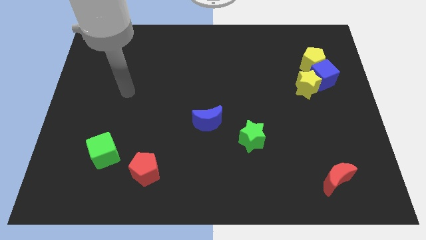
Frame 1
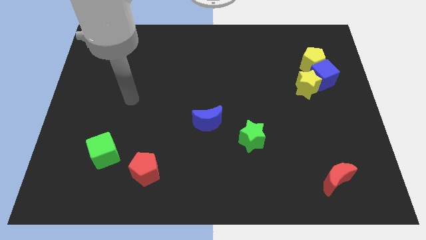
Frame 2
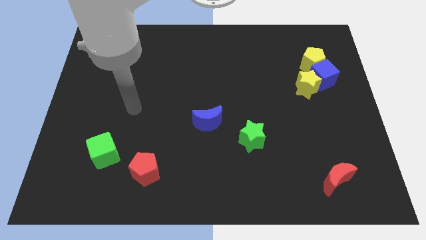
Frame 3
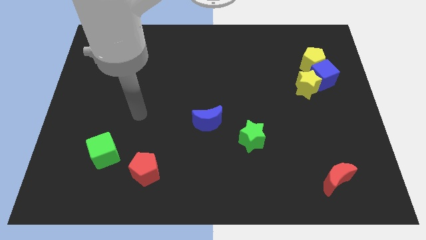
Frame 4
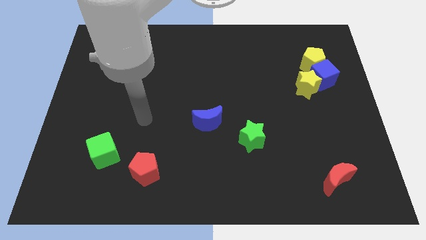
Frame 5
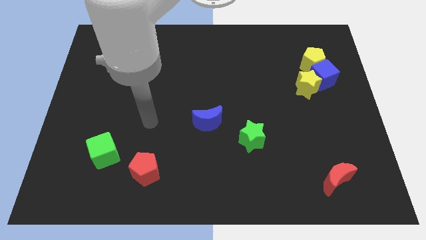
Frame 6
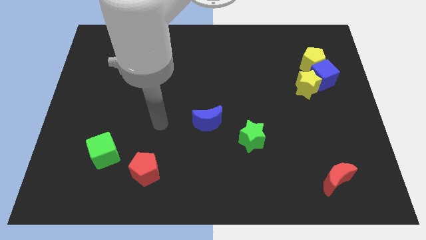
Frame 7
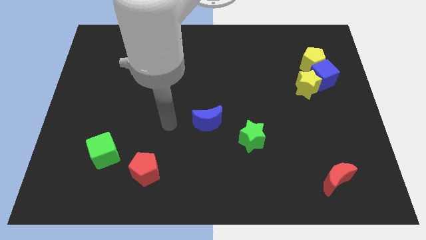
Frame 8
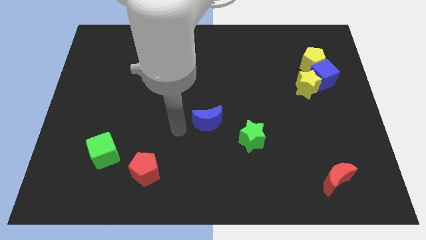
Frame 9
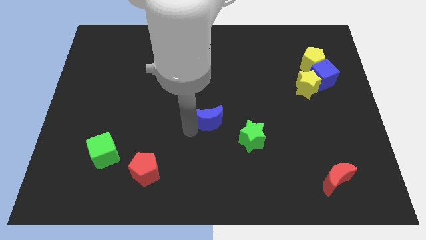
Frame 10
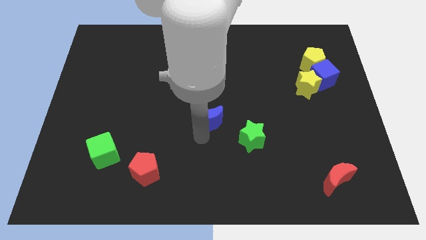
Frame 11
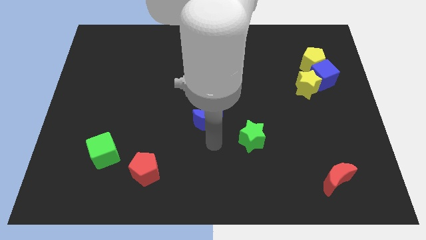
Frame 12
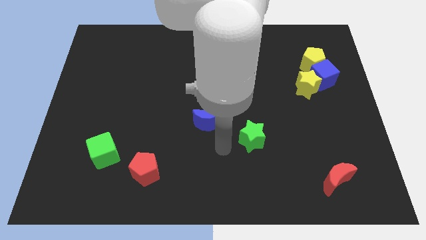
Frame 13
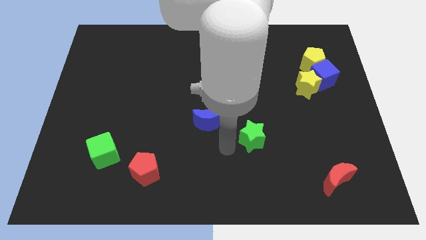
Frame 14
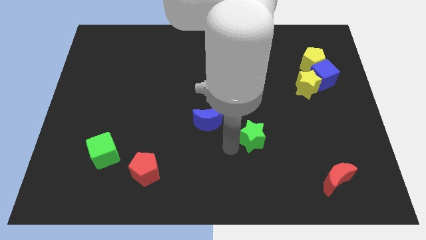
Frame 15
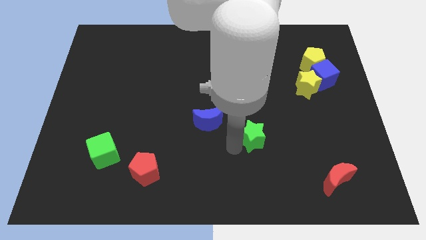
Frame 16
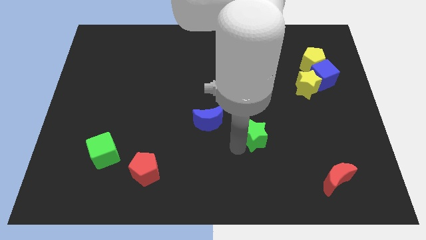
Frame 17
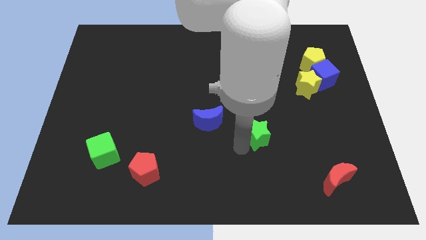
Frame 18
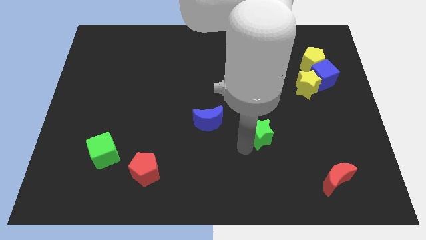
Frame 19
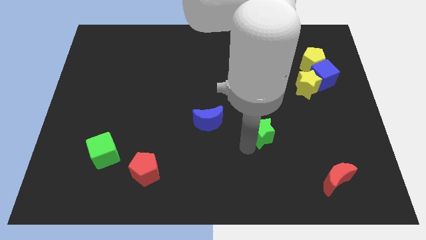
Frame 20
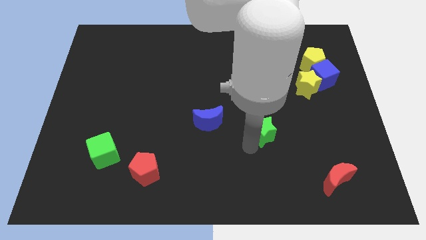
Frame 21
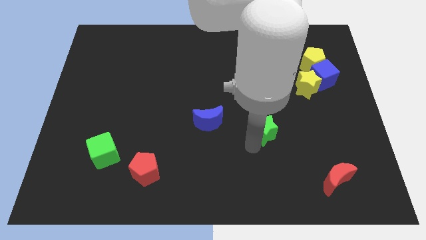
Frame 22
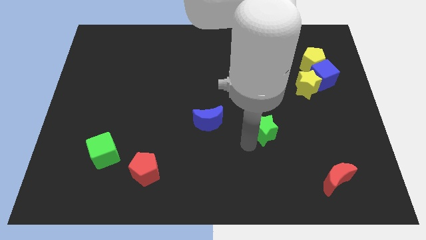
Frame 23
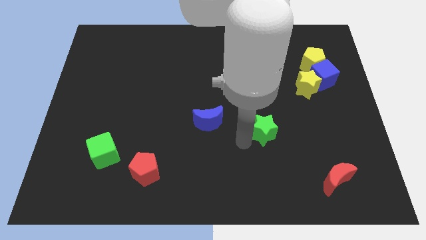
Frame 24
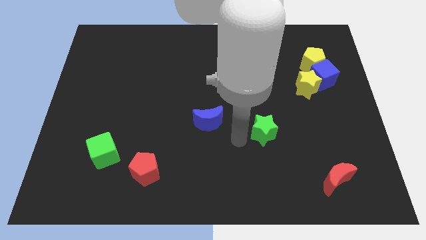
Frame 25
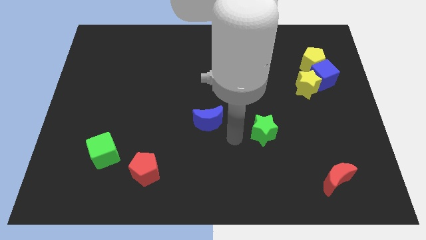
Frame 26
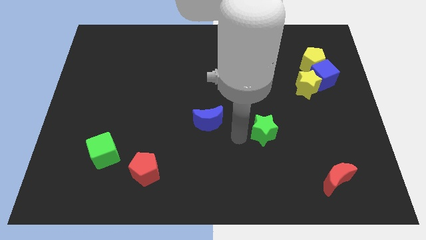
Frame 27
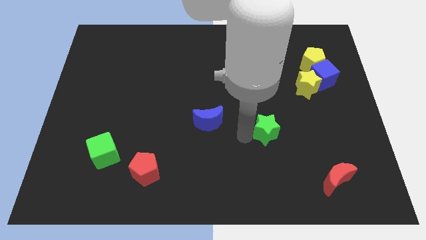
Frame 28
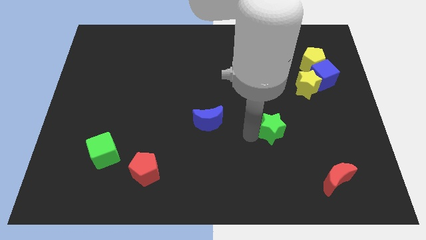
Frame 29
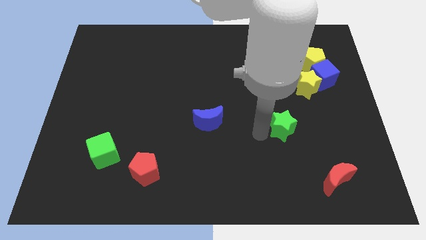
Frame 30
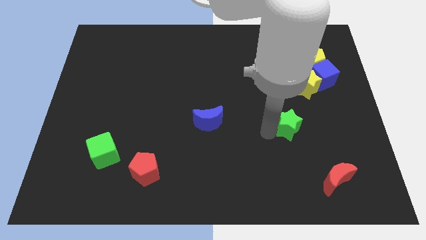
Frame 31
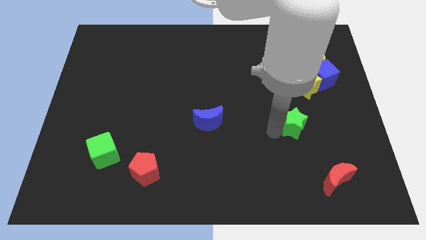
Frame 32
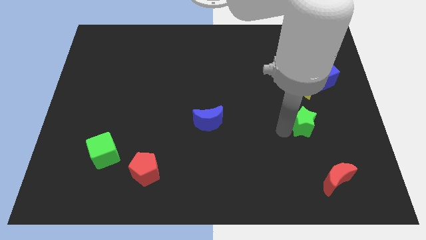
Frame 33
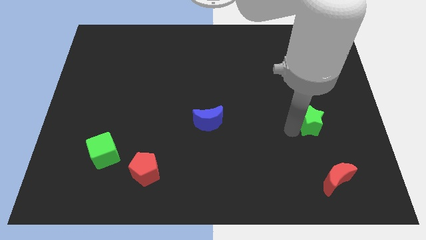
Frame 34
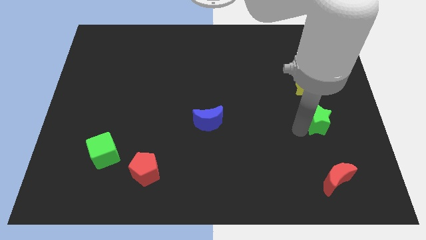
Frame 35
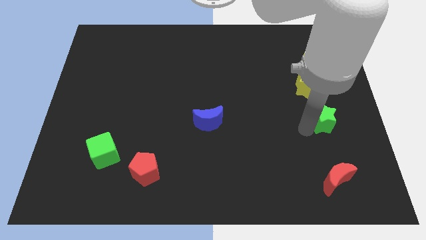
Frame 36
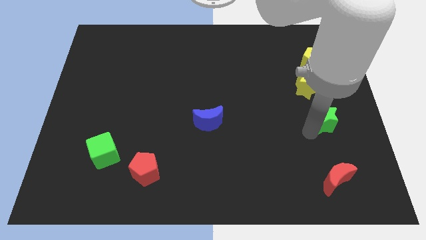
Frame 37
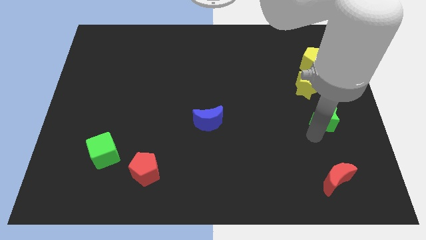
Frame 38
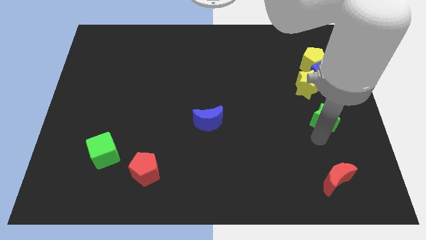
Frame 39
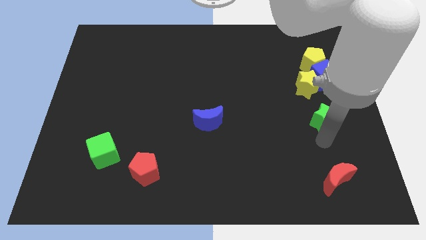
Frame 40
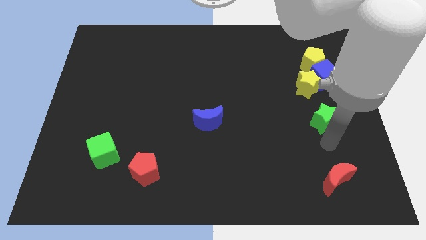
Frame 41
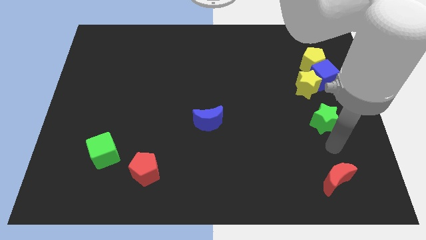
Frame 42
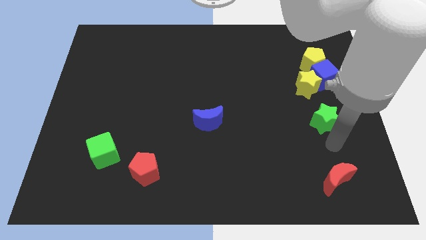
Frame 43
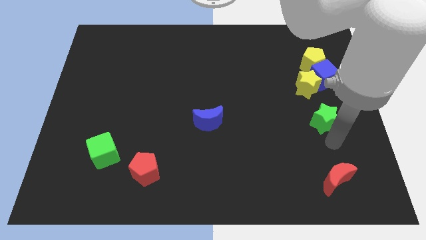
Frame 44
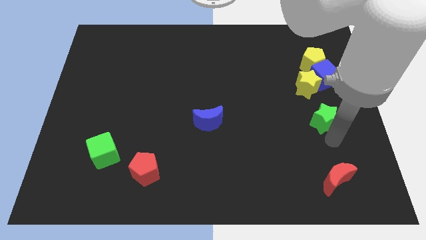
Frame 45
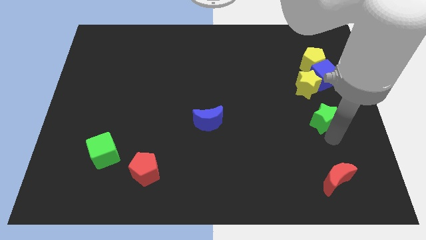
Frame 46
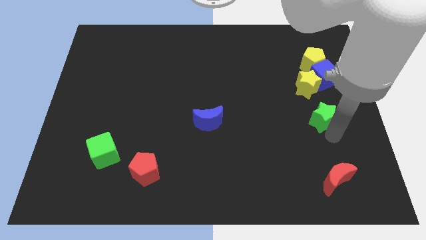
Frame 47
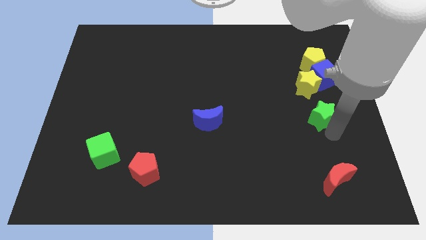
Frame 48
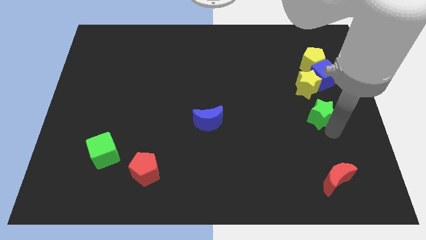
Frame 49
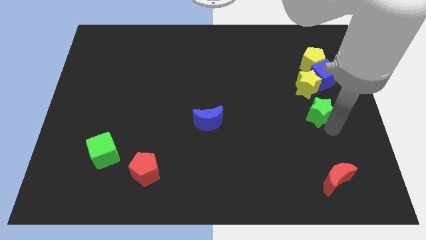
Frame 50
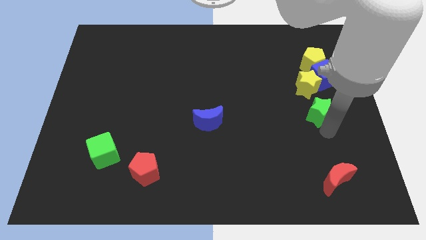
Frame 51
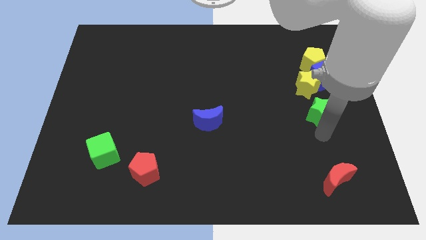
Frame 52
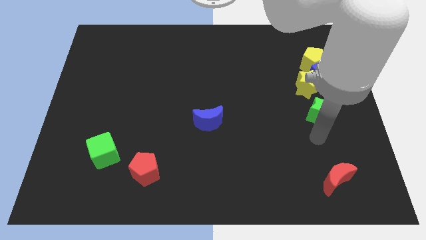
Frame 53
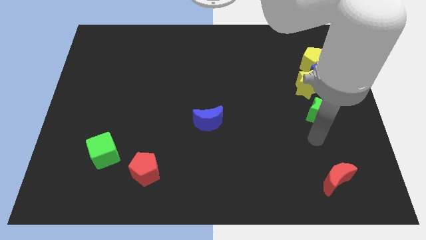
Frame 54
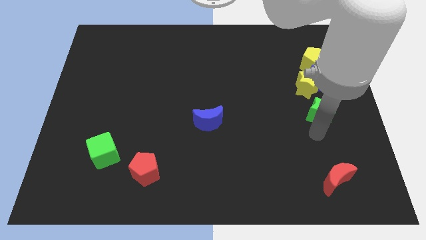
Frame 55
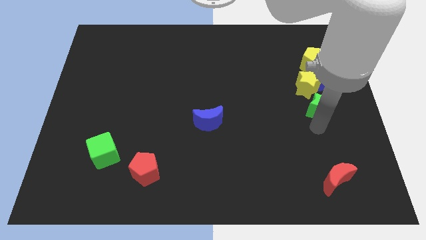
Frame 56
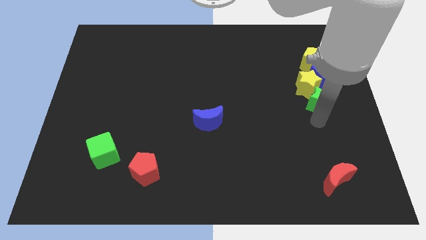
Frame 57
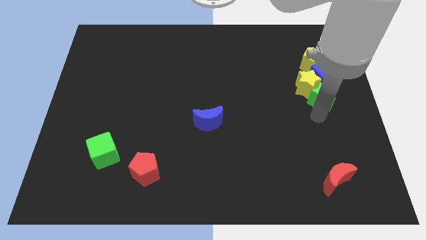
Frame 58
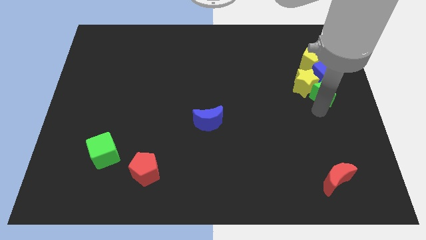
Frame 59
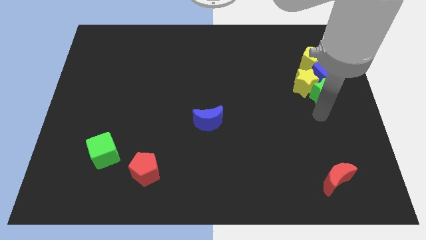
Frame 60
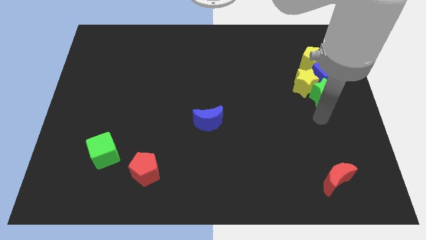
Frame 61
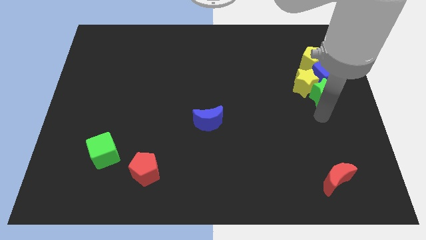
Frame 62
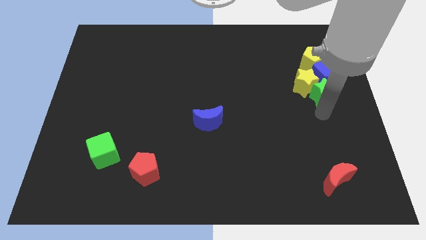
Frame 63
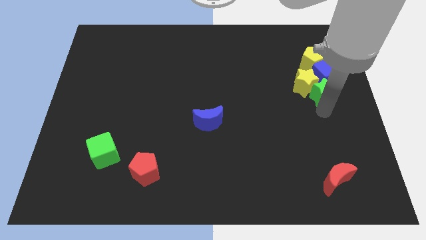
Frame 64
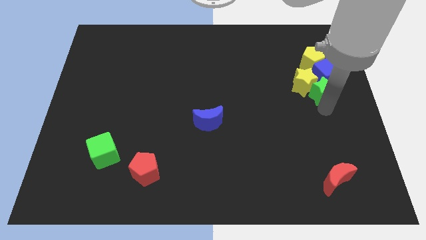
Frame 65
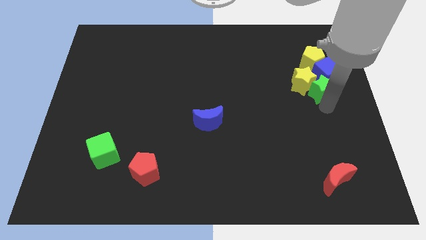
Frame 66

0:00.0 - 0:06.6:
push the green star close to the blue cube

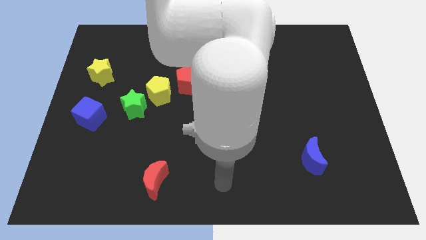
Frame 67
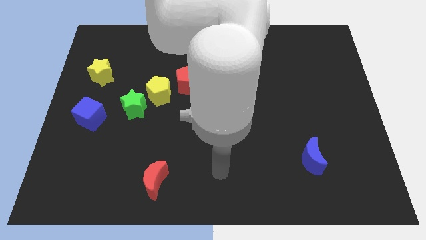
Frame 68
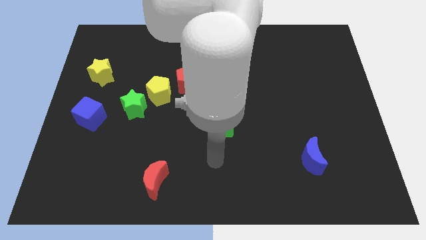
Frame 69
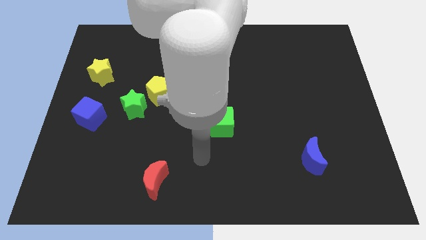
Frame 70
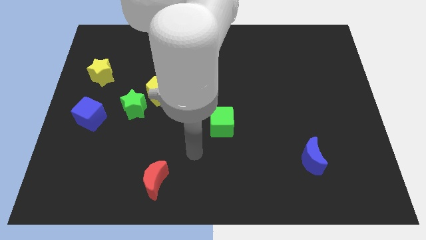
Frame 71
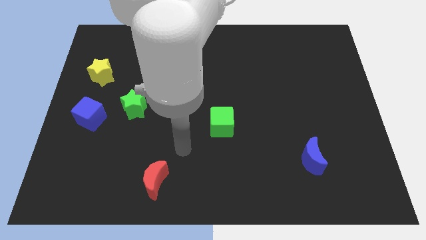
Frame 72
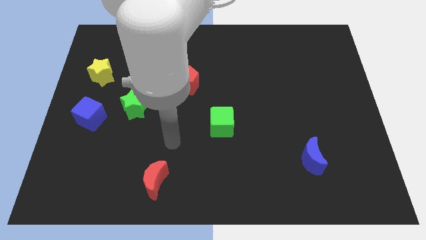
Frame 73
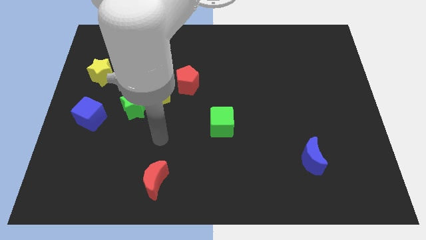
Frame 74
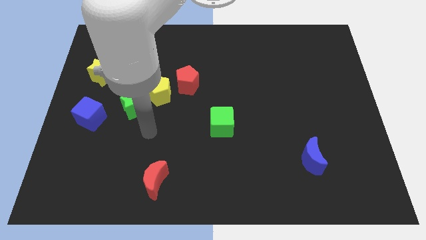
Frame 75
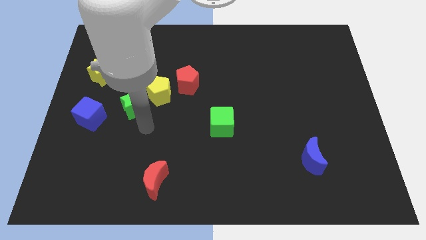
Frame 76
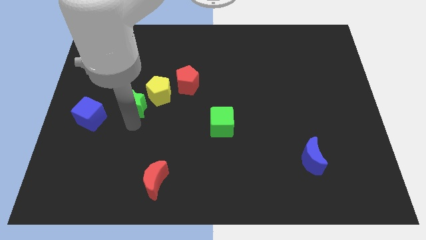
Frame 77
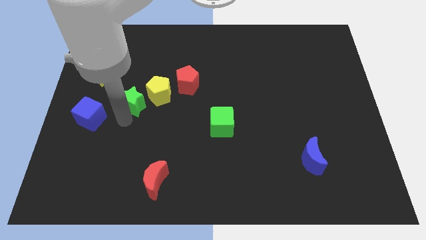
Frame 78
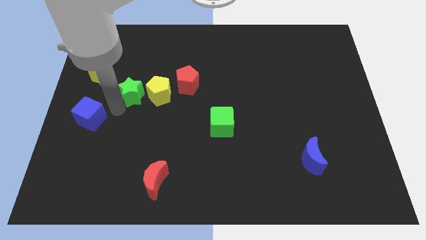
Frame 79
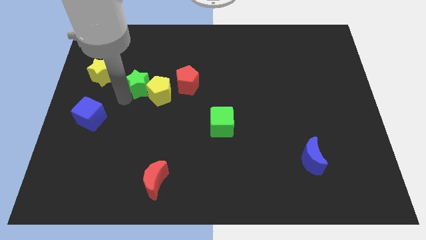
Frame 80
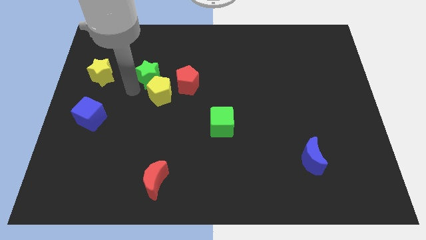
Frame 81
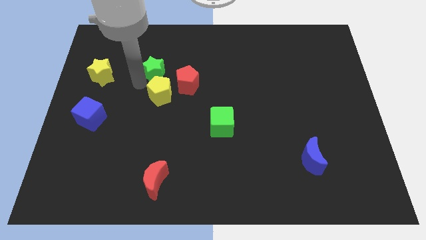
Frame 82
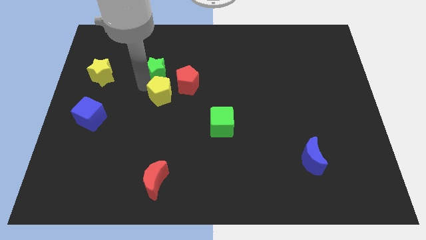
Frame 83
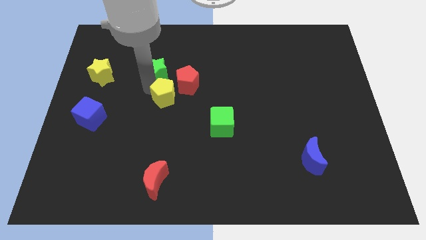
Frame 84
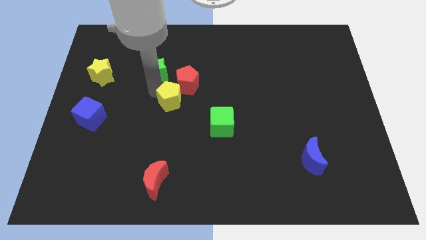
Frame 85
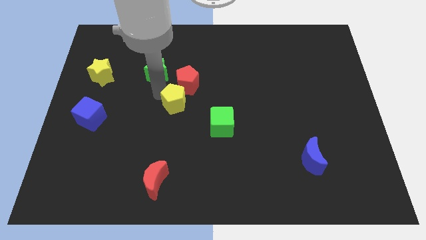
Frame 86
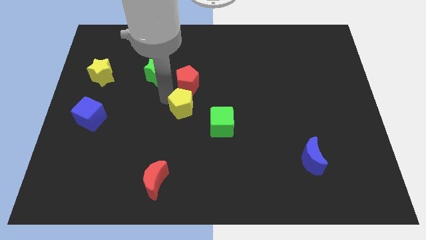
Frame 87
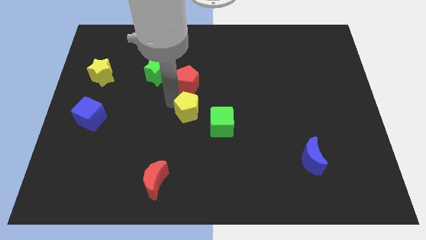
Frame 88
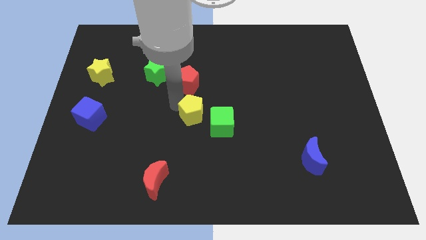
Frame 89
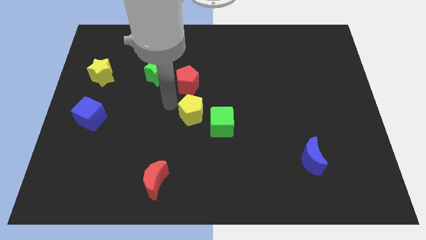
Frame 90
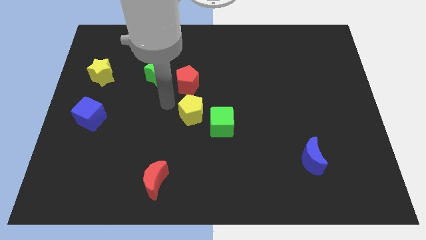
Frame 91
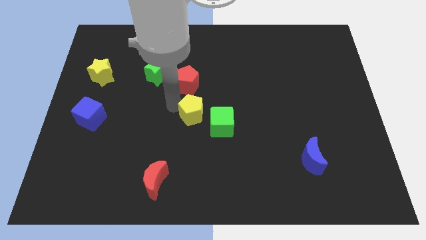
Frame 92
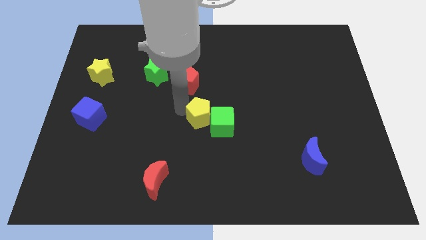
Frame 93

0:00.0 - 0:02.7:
push the yellow pentagon close to the green cube
